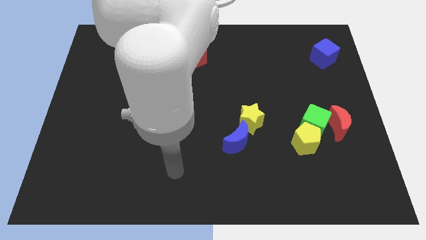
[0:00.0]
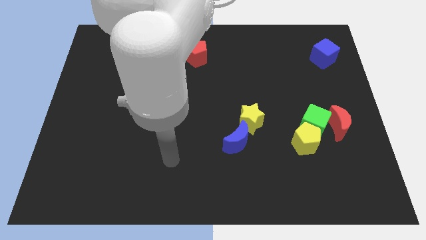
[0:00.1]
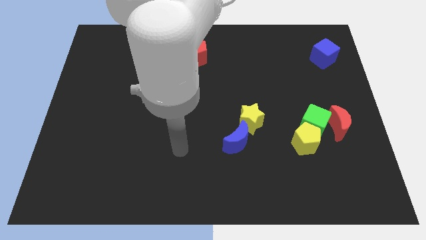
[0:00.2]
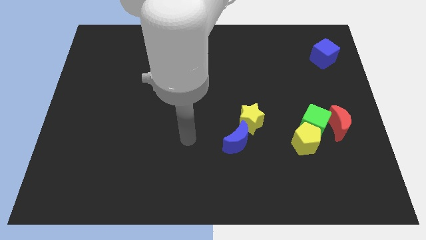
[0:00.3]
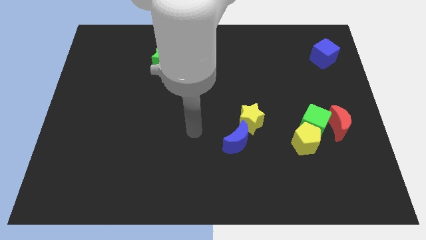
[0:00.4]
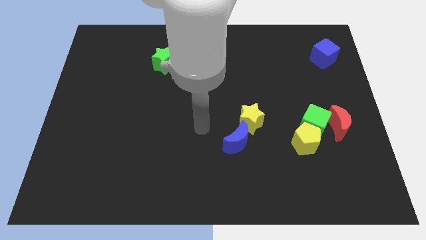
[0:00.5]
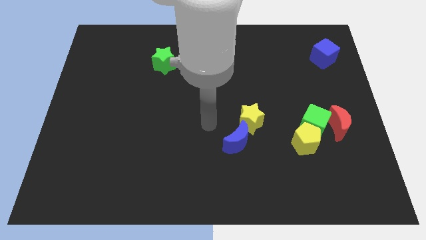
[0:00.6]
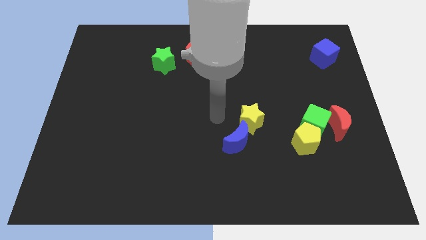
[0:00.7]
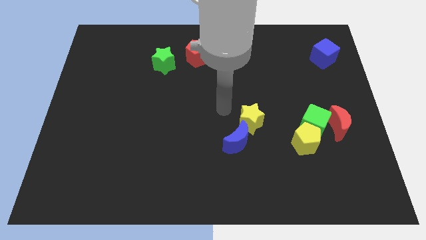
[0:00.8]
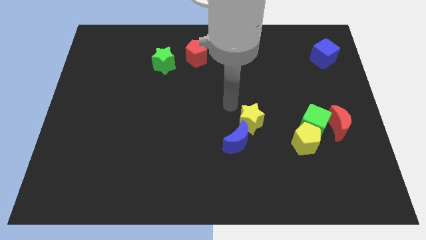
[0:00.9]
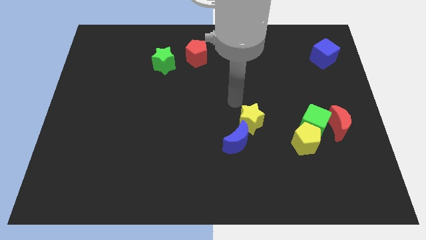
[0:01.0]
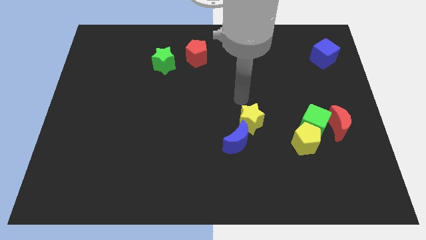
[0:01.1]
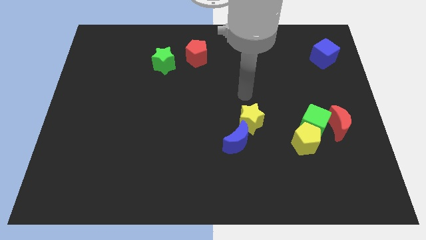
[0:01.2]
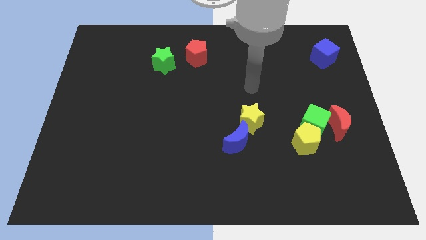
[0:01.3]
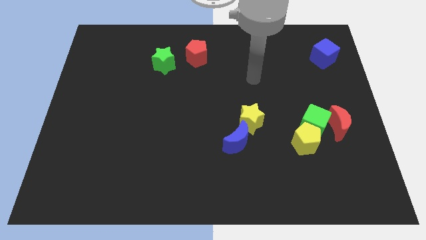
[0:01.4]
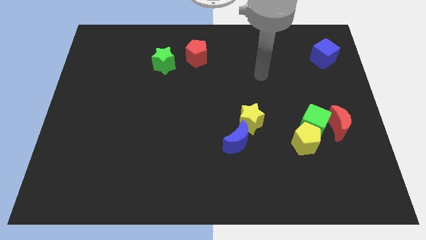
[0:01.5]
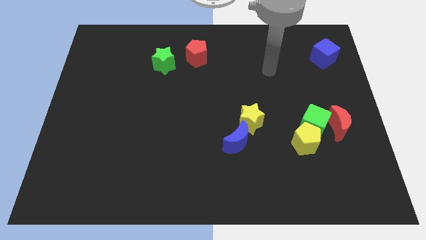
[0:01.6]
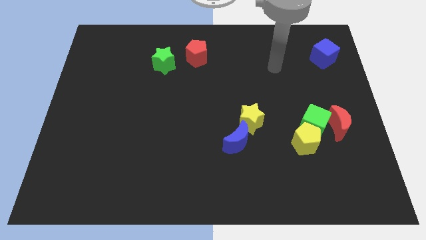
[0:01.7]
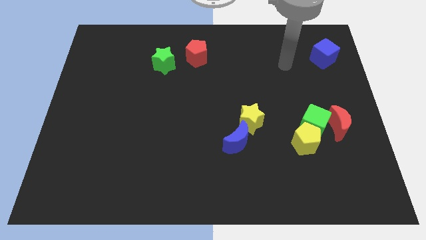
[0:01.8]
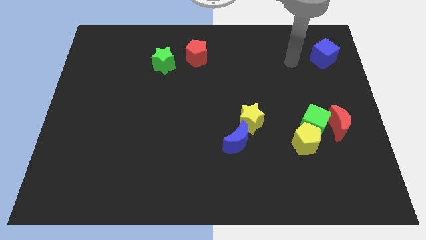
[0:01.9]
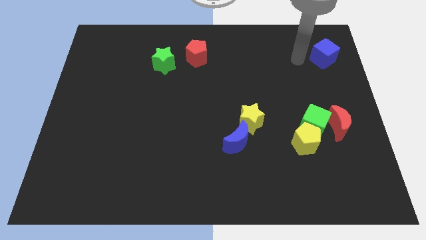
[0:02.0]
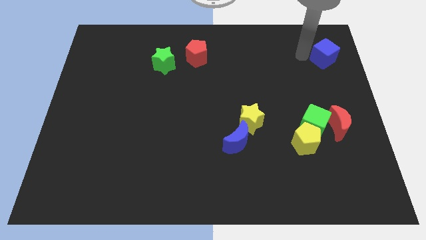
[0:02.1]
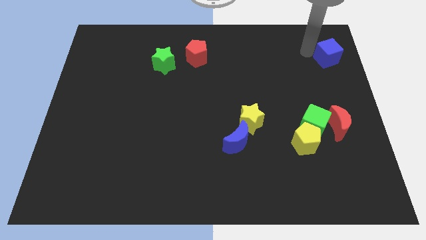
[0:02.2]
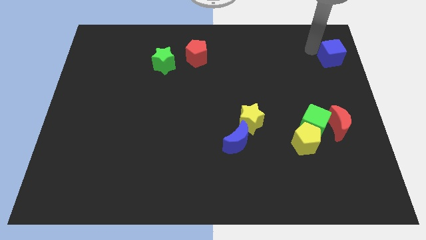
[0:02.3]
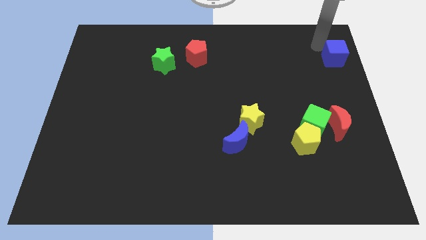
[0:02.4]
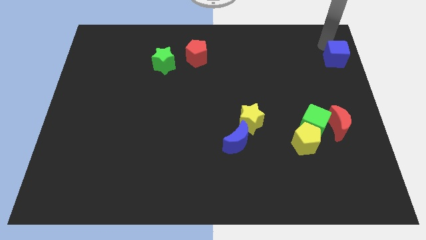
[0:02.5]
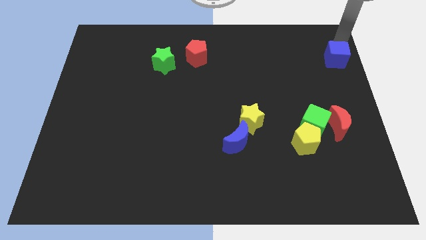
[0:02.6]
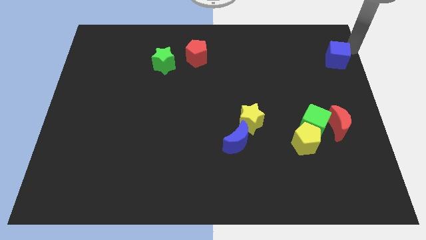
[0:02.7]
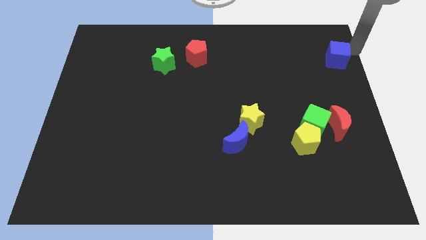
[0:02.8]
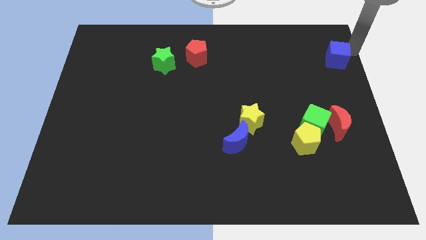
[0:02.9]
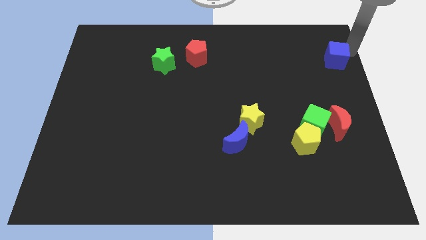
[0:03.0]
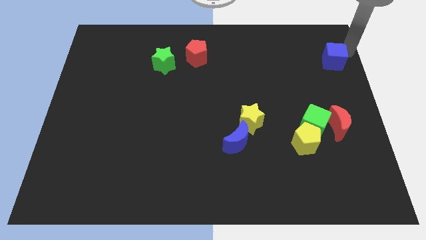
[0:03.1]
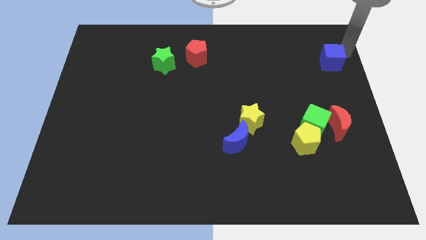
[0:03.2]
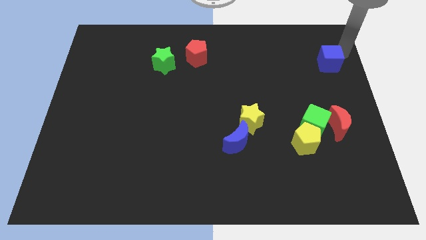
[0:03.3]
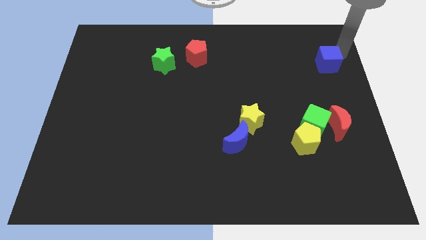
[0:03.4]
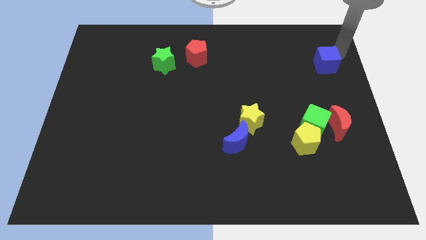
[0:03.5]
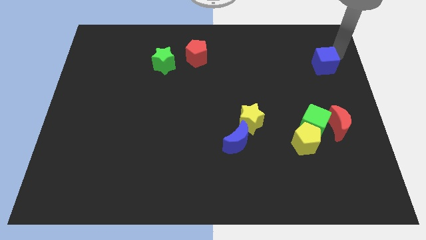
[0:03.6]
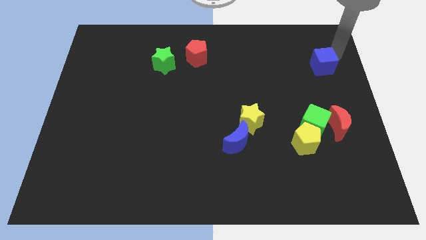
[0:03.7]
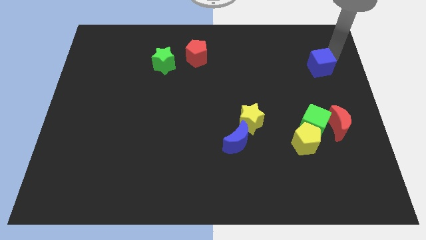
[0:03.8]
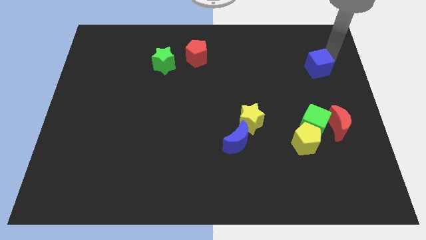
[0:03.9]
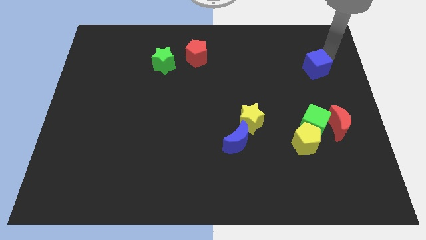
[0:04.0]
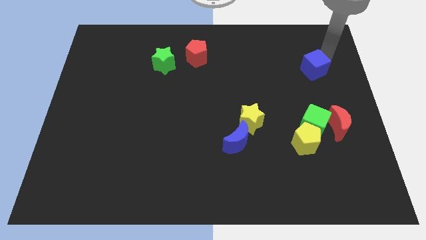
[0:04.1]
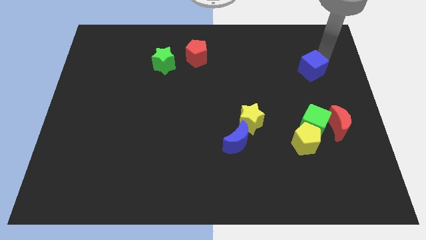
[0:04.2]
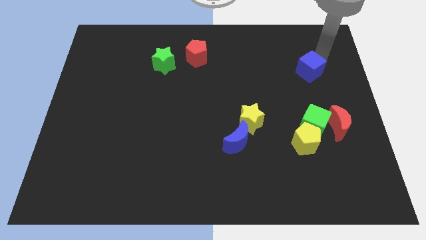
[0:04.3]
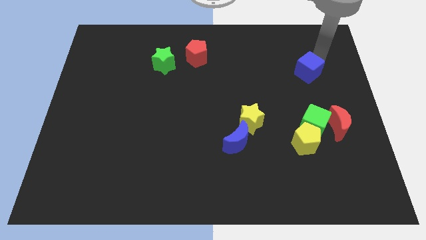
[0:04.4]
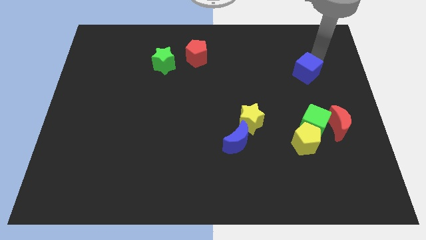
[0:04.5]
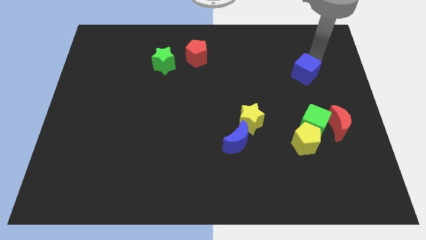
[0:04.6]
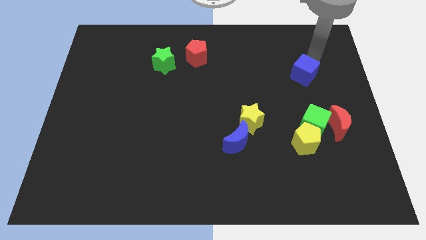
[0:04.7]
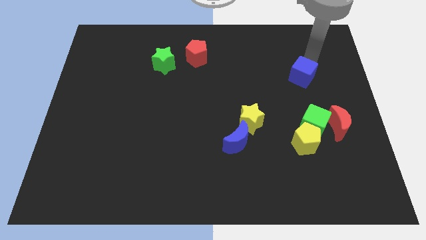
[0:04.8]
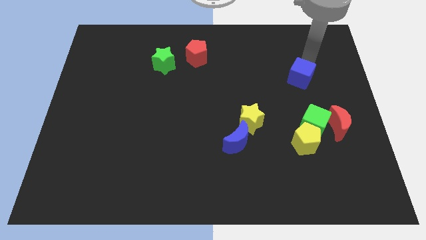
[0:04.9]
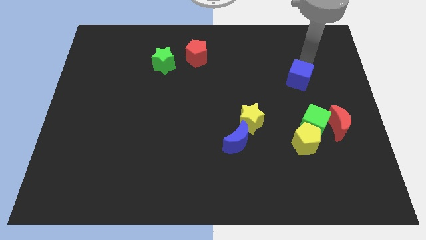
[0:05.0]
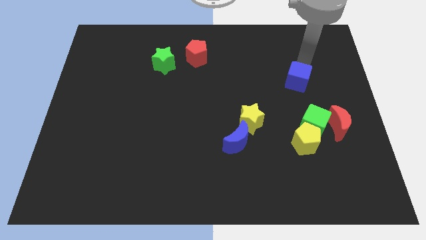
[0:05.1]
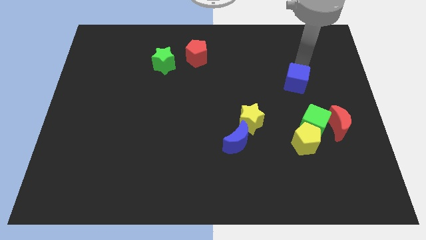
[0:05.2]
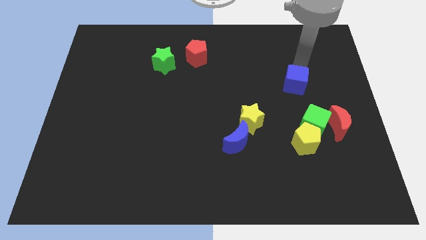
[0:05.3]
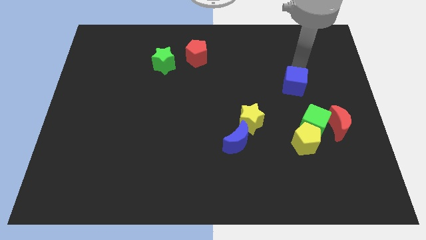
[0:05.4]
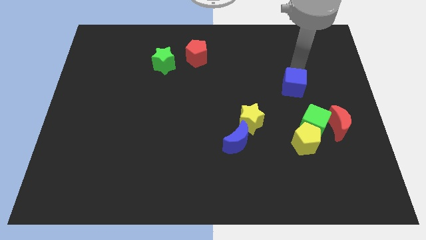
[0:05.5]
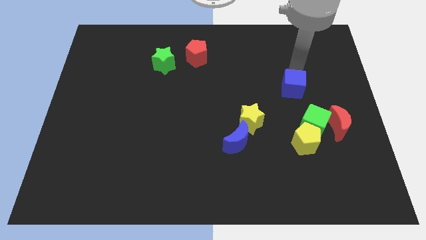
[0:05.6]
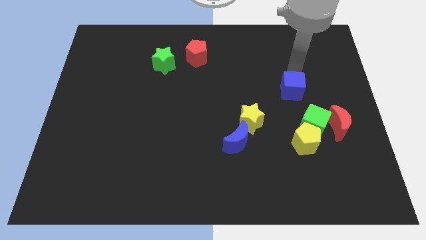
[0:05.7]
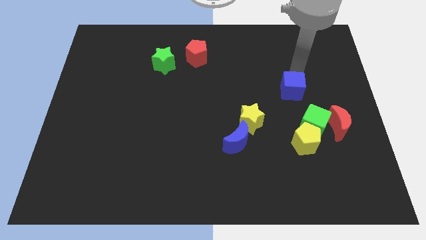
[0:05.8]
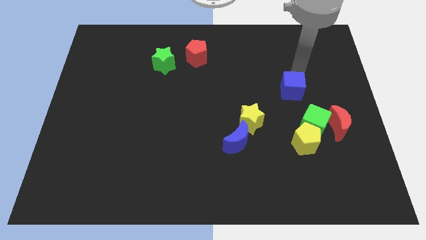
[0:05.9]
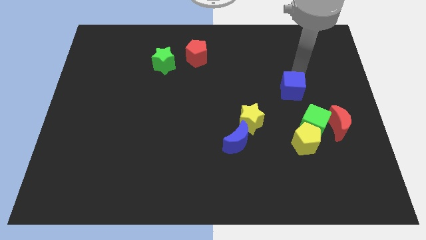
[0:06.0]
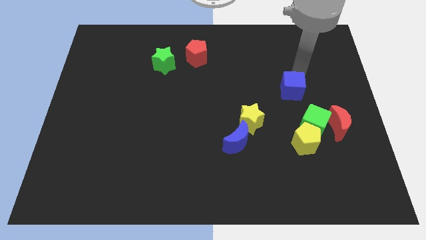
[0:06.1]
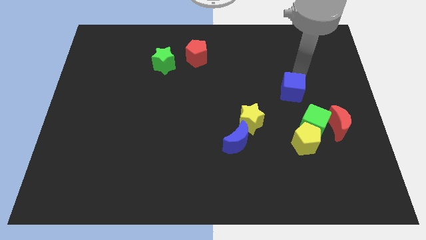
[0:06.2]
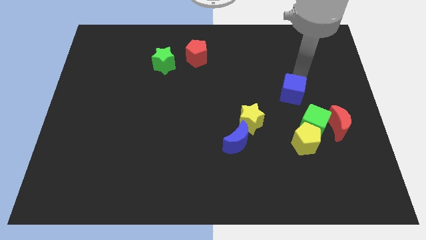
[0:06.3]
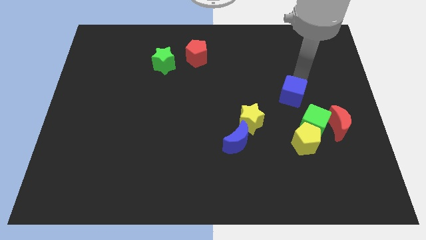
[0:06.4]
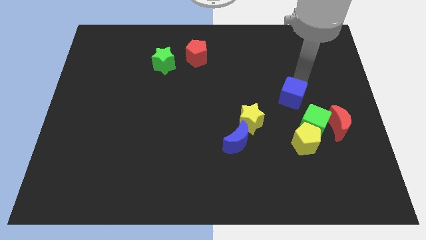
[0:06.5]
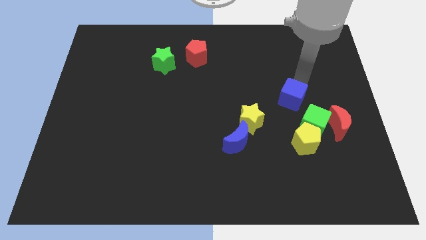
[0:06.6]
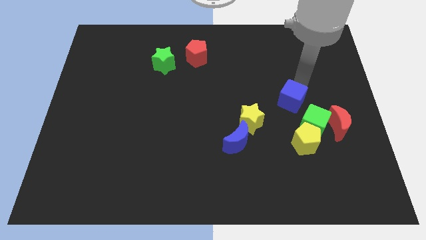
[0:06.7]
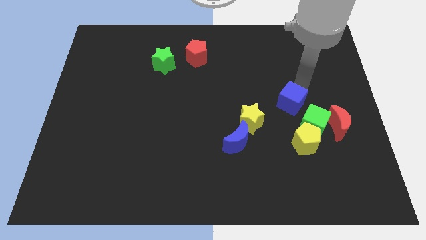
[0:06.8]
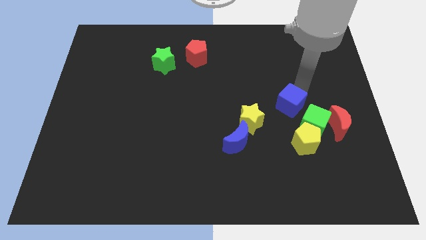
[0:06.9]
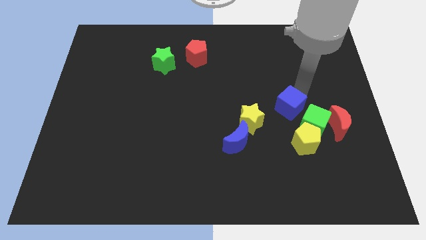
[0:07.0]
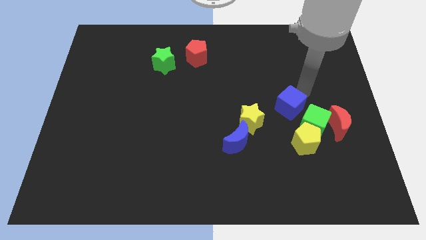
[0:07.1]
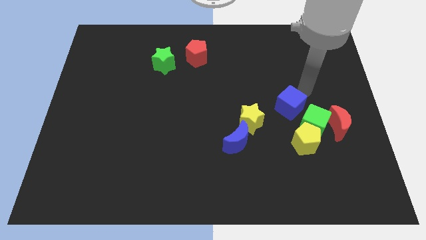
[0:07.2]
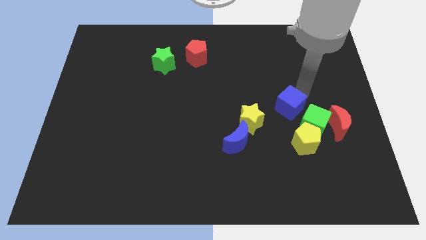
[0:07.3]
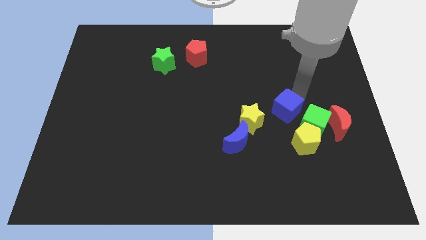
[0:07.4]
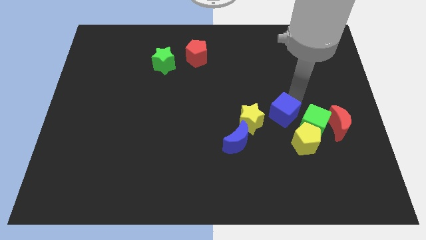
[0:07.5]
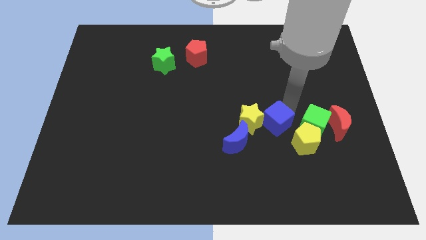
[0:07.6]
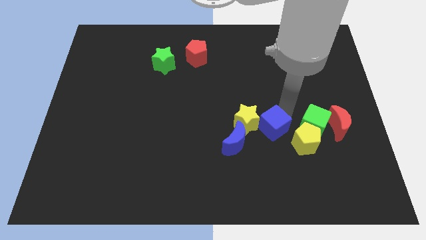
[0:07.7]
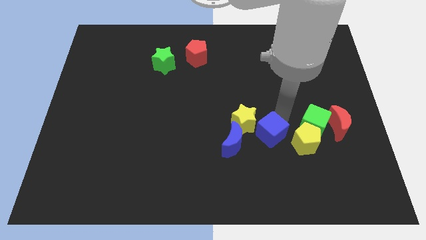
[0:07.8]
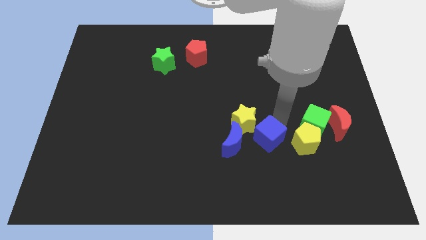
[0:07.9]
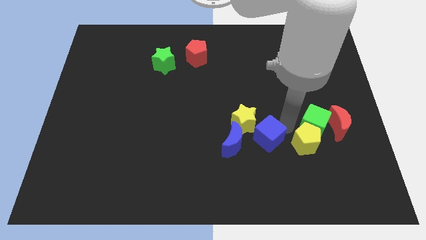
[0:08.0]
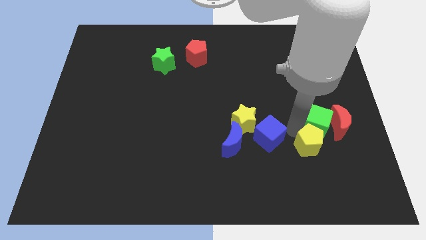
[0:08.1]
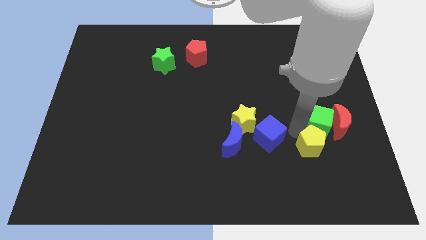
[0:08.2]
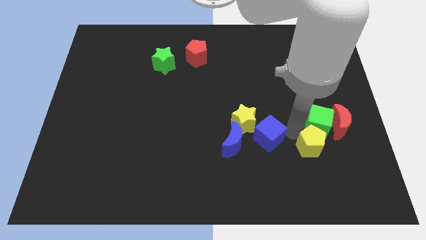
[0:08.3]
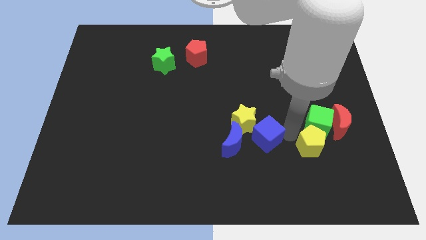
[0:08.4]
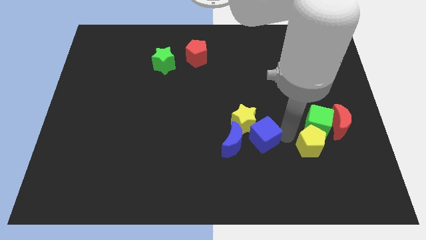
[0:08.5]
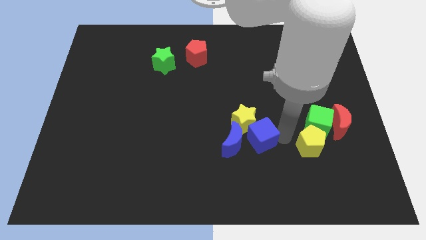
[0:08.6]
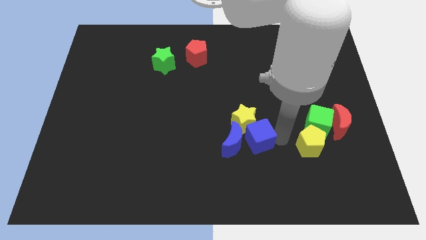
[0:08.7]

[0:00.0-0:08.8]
move the blue cube close to the blue moon
